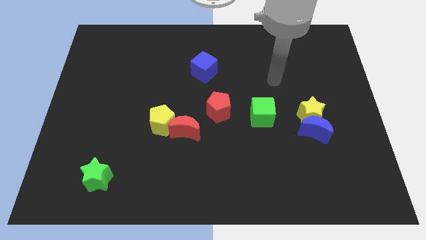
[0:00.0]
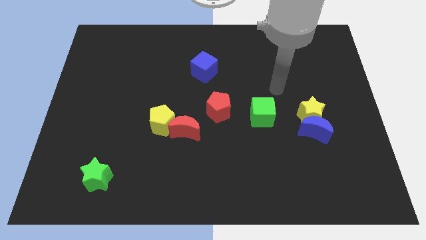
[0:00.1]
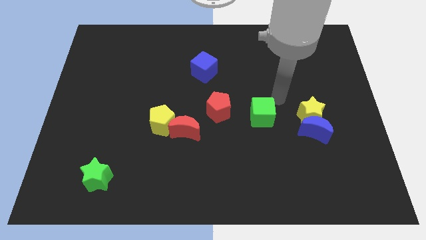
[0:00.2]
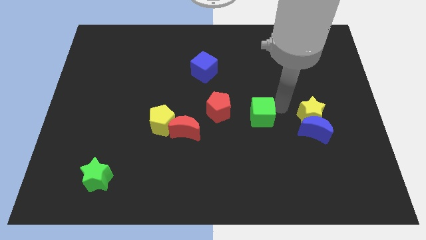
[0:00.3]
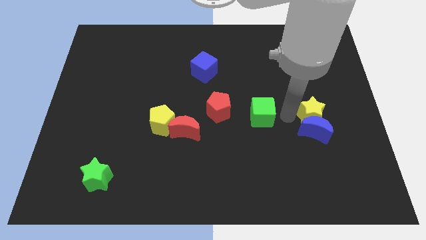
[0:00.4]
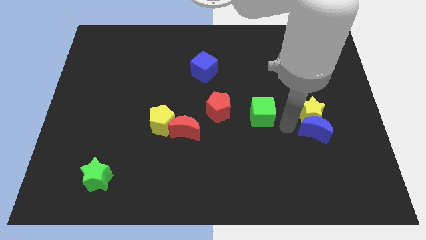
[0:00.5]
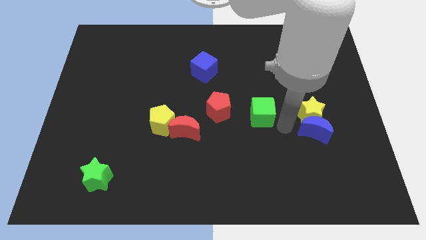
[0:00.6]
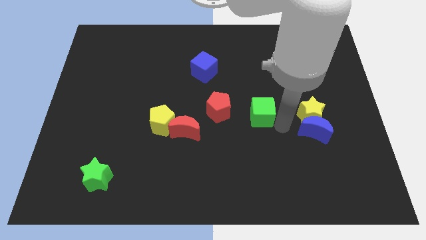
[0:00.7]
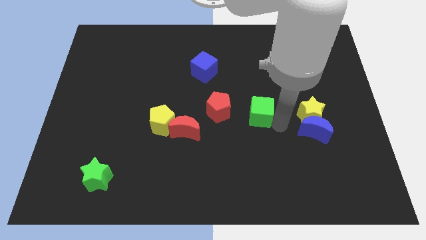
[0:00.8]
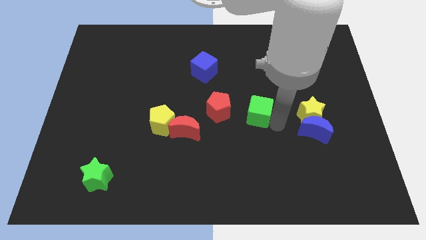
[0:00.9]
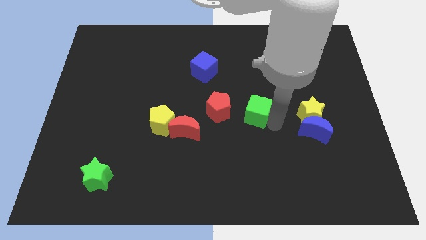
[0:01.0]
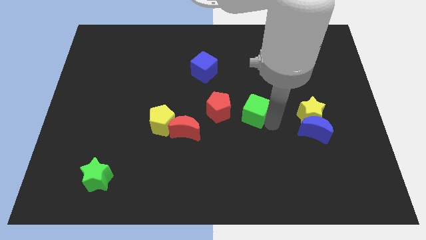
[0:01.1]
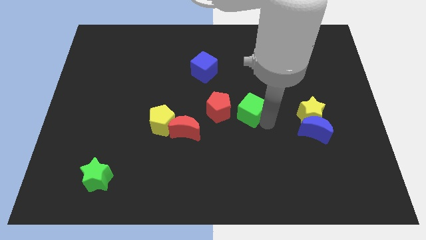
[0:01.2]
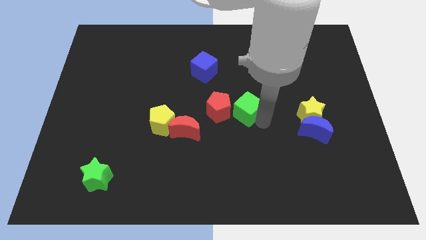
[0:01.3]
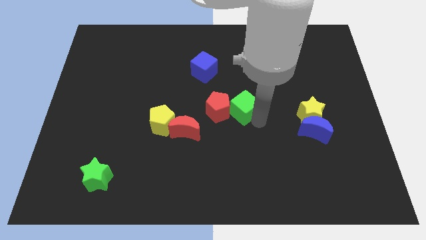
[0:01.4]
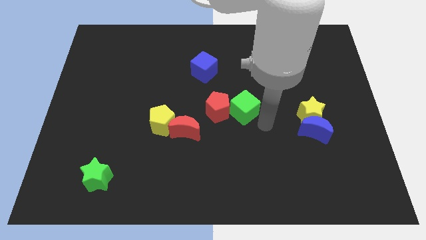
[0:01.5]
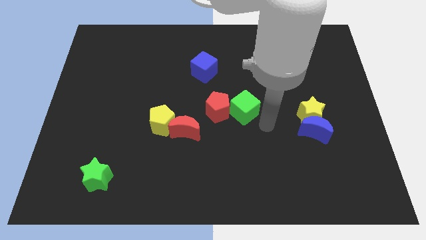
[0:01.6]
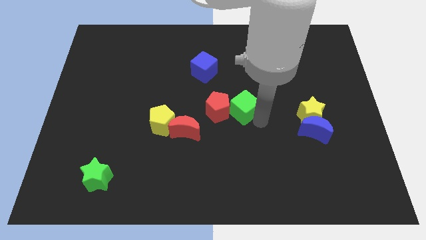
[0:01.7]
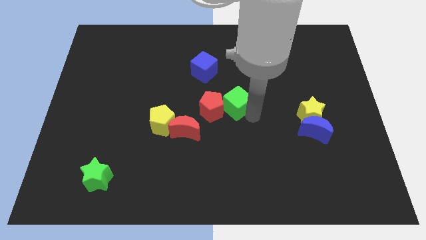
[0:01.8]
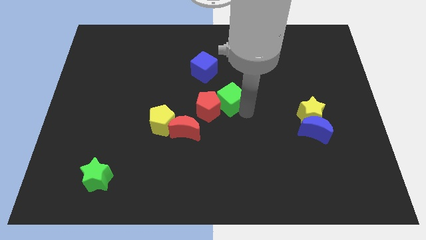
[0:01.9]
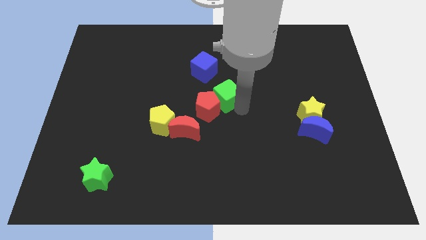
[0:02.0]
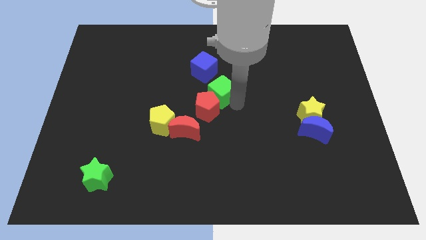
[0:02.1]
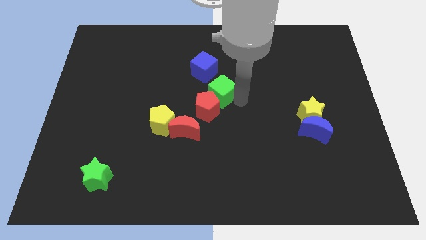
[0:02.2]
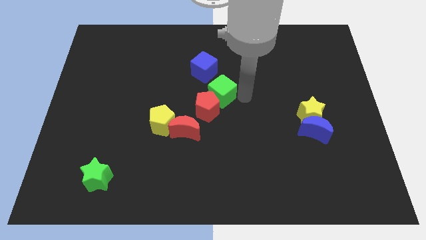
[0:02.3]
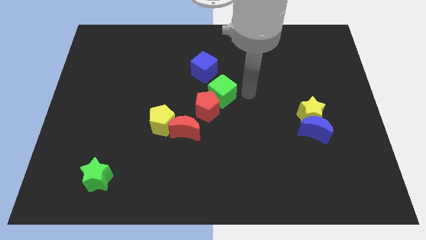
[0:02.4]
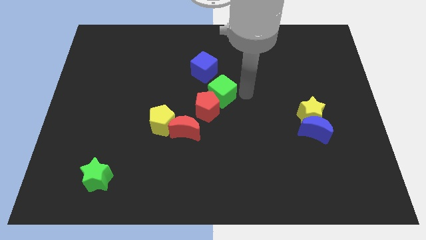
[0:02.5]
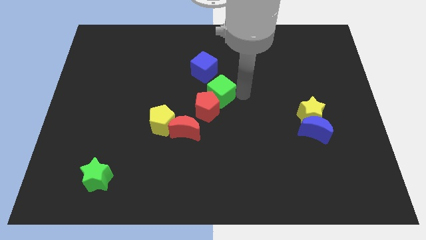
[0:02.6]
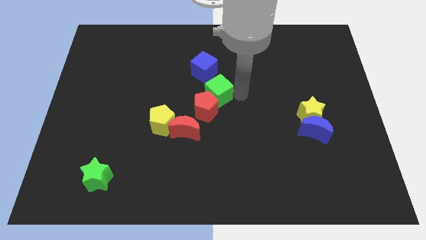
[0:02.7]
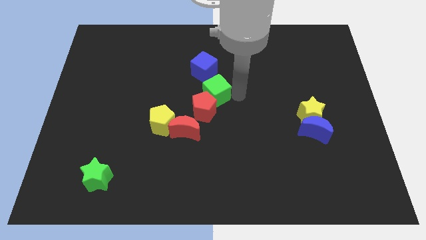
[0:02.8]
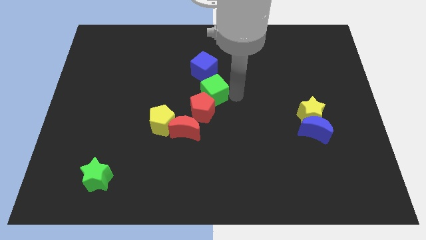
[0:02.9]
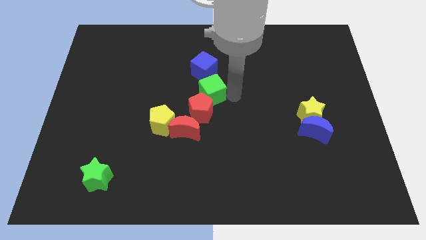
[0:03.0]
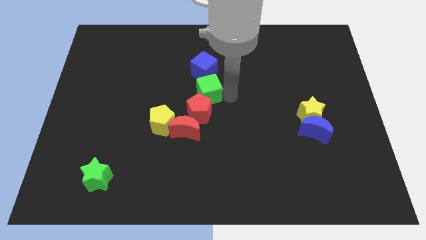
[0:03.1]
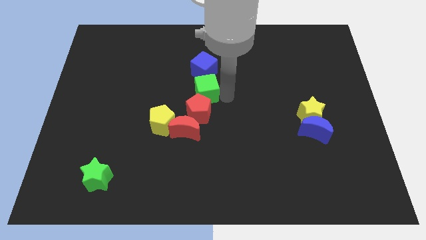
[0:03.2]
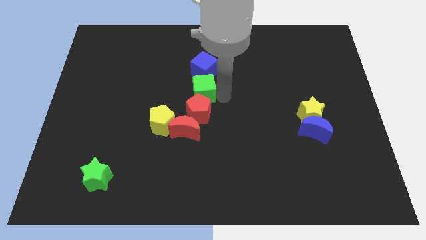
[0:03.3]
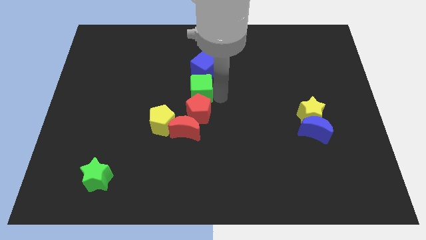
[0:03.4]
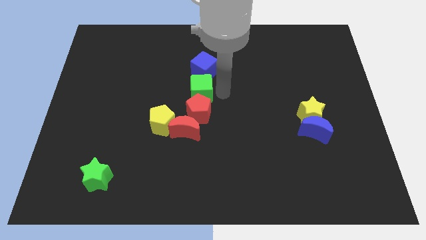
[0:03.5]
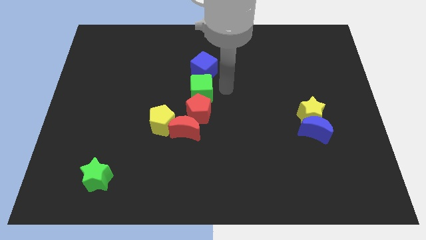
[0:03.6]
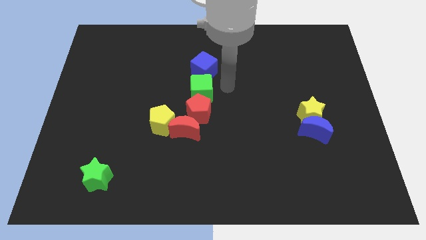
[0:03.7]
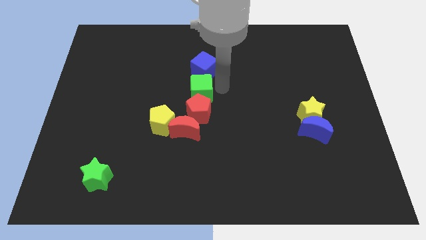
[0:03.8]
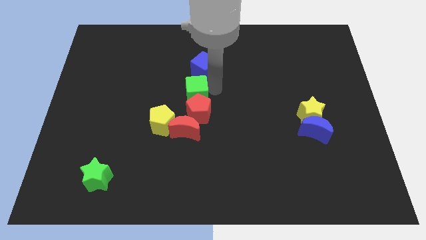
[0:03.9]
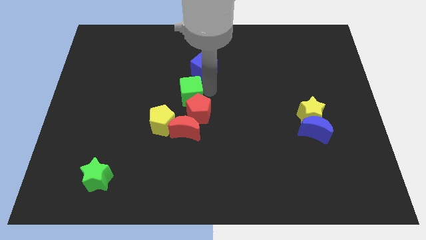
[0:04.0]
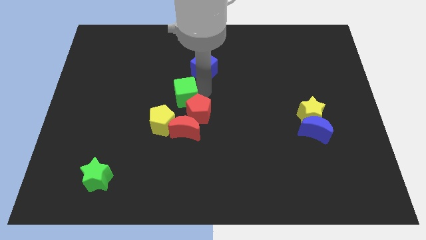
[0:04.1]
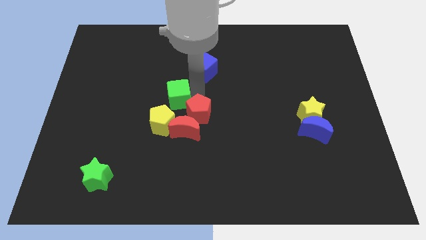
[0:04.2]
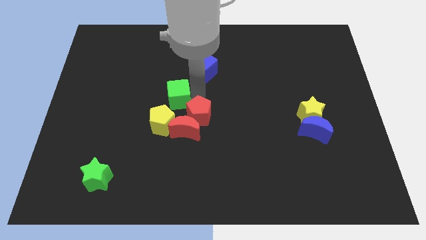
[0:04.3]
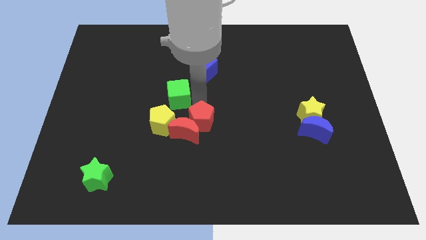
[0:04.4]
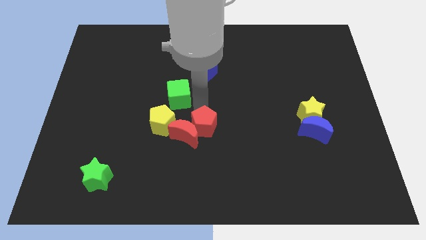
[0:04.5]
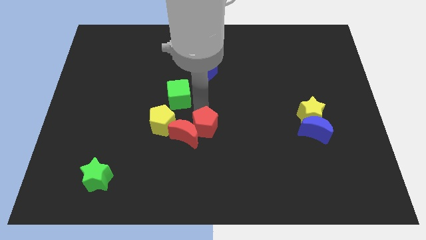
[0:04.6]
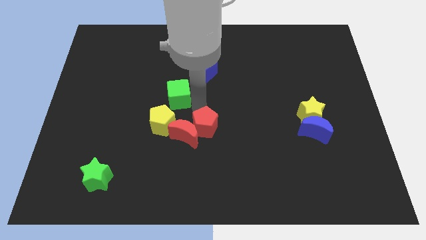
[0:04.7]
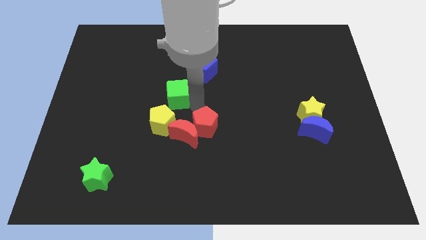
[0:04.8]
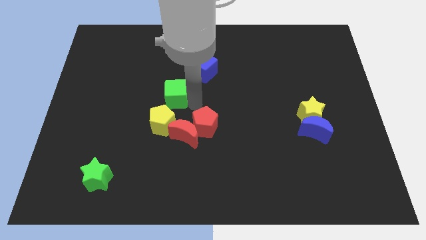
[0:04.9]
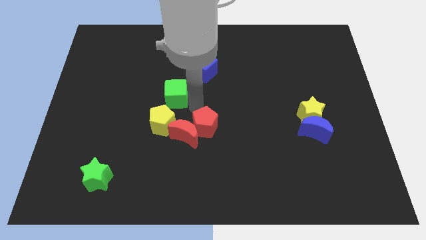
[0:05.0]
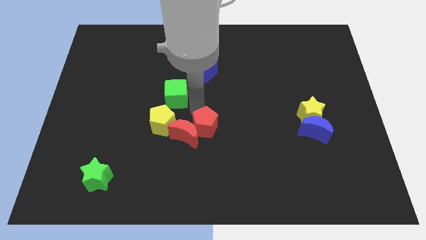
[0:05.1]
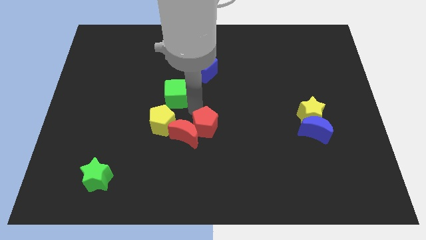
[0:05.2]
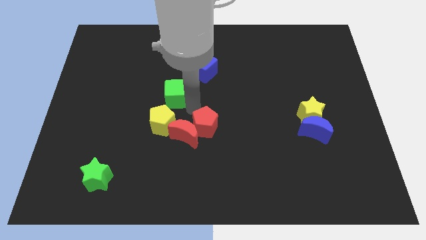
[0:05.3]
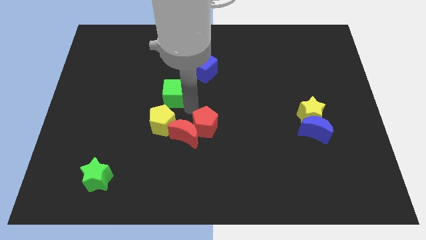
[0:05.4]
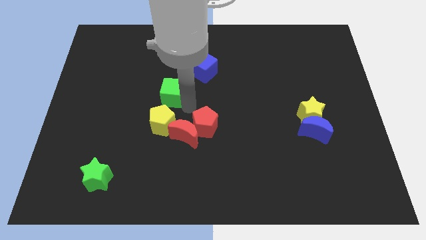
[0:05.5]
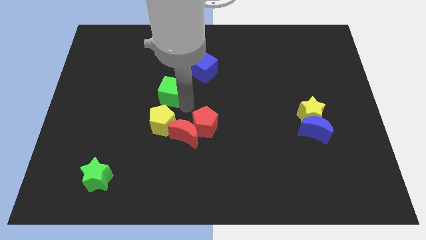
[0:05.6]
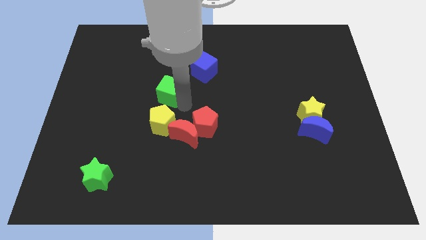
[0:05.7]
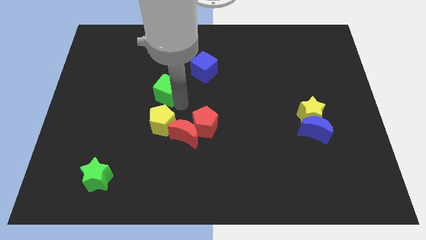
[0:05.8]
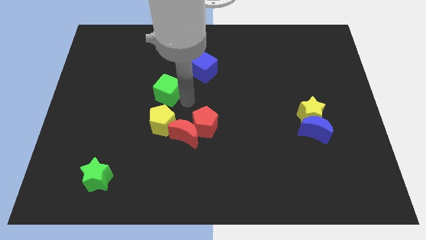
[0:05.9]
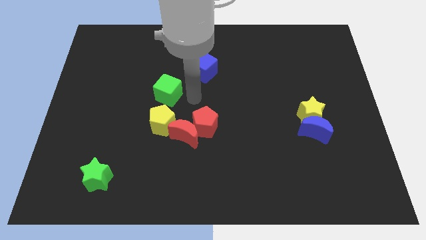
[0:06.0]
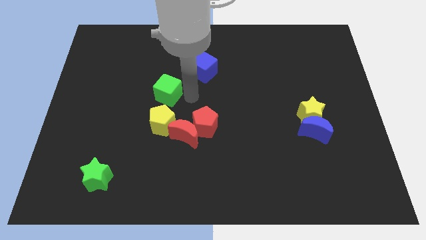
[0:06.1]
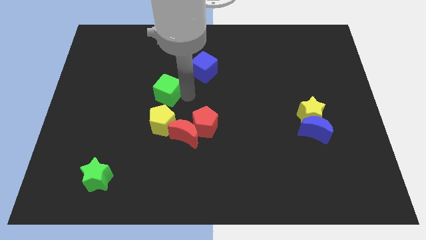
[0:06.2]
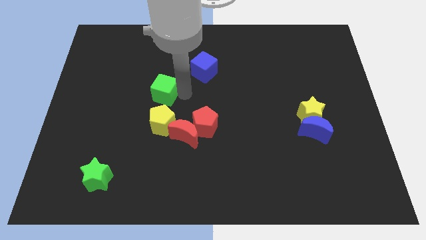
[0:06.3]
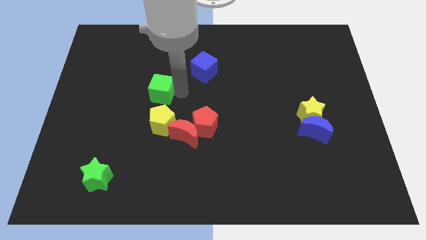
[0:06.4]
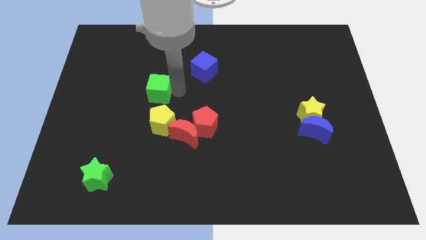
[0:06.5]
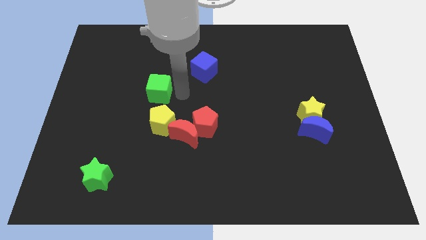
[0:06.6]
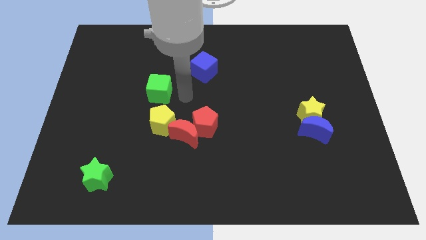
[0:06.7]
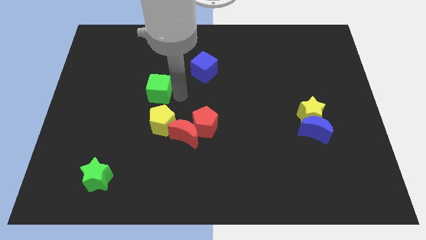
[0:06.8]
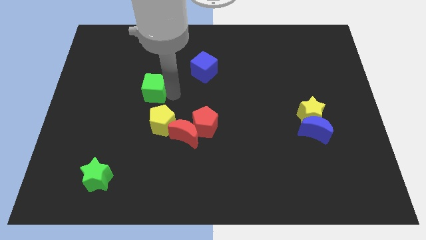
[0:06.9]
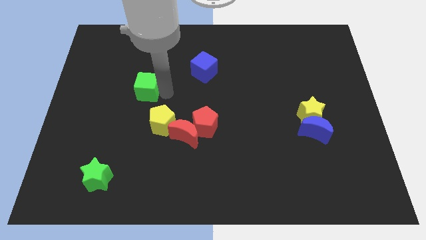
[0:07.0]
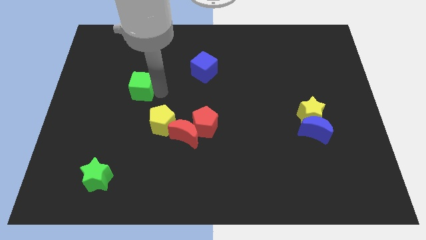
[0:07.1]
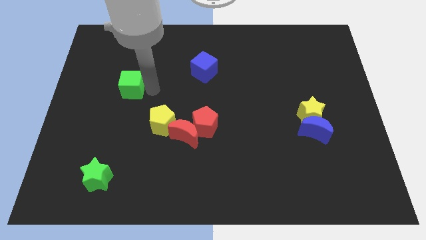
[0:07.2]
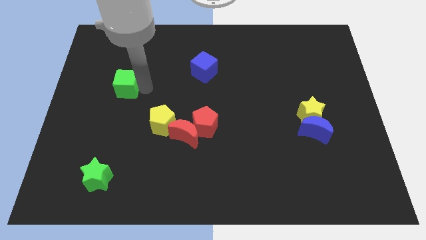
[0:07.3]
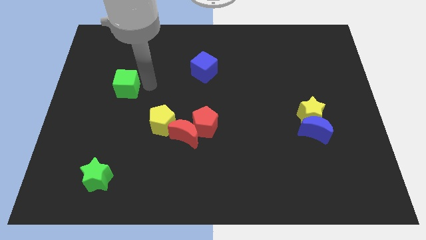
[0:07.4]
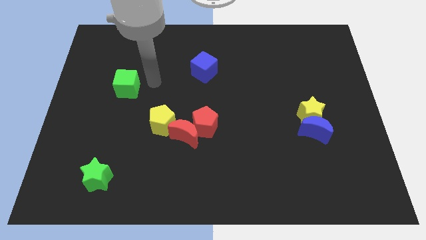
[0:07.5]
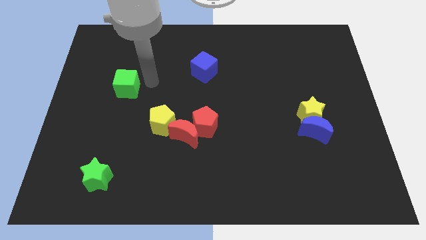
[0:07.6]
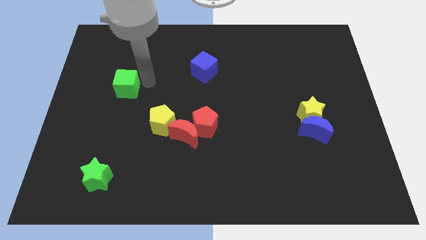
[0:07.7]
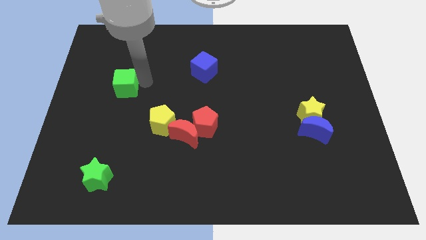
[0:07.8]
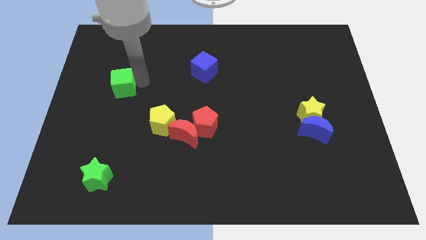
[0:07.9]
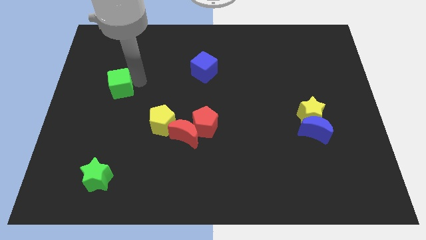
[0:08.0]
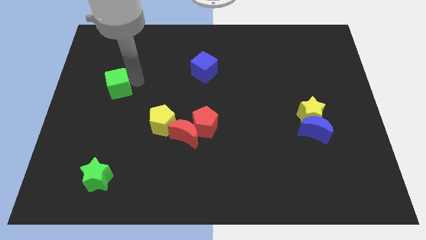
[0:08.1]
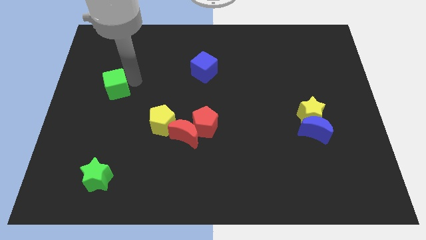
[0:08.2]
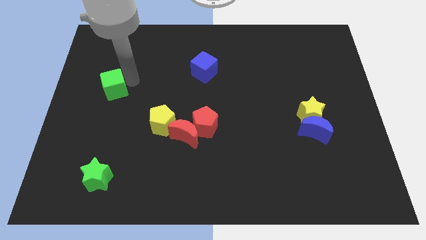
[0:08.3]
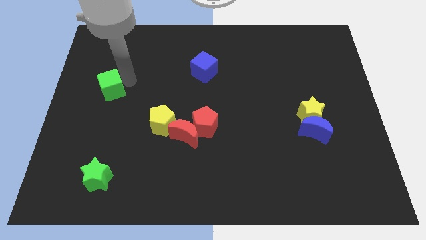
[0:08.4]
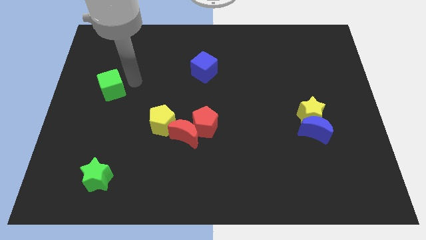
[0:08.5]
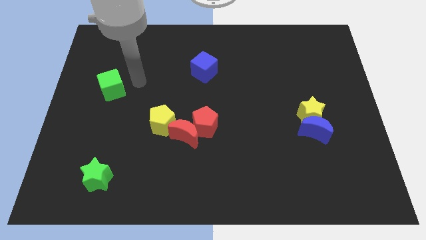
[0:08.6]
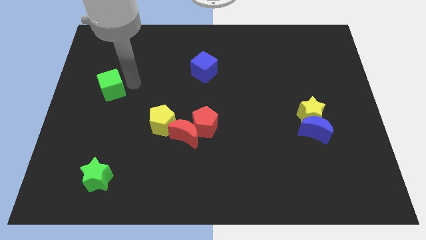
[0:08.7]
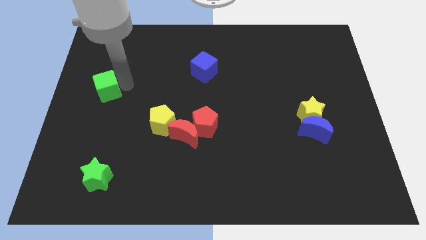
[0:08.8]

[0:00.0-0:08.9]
put the green cube to the left side of the board
